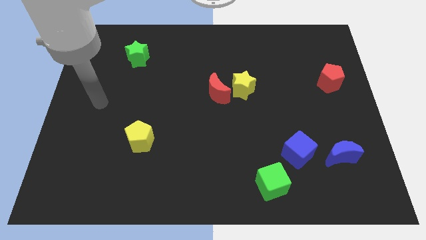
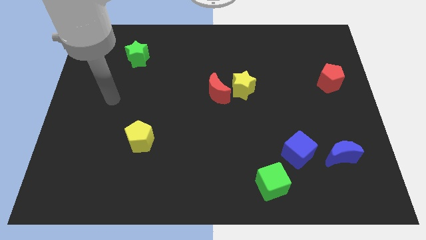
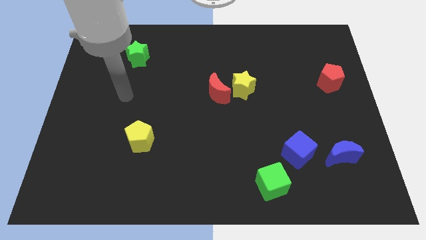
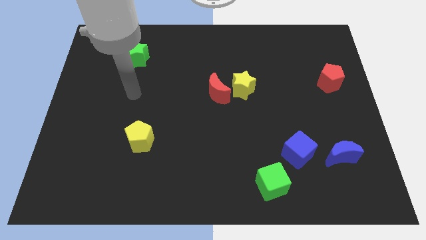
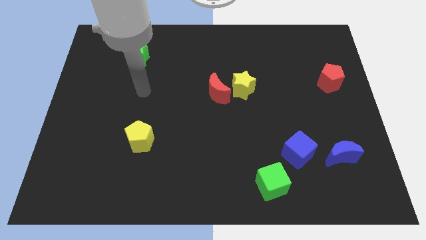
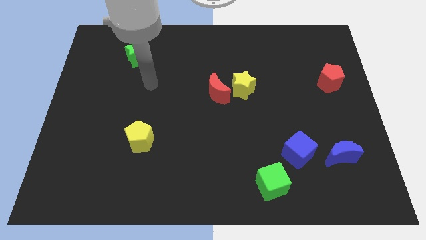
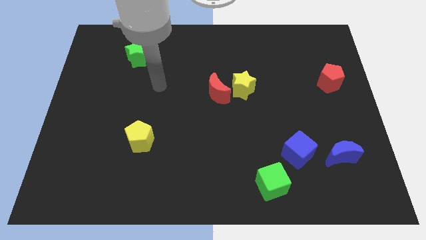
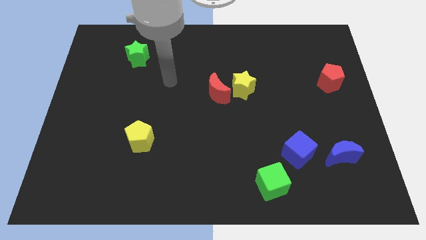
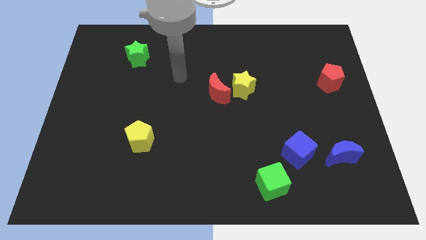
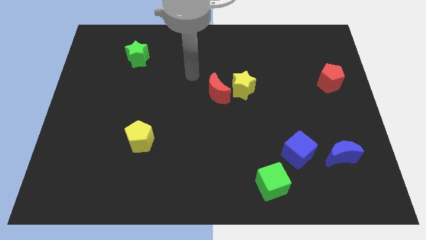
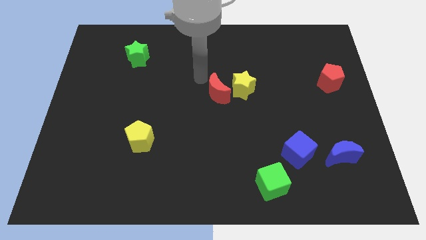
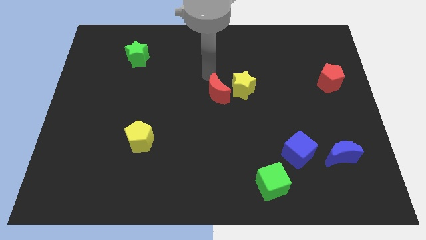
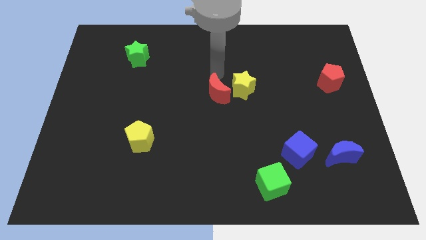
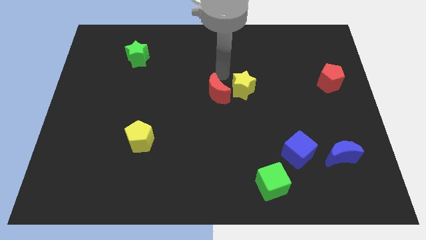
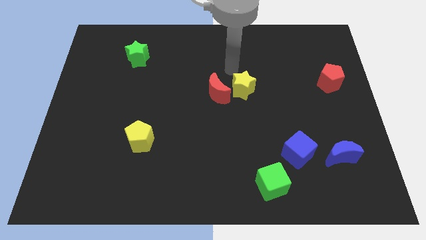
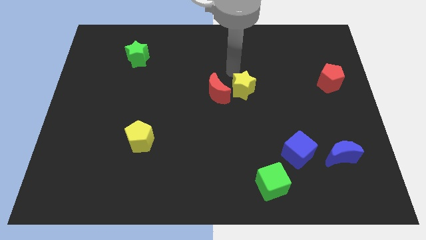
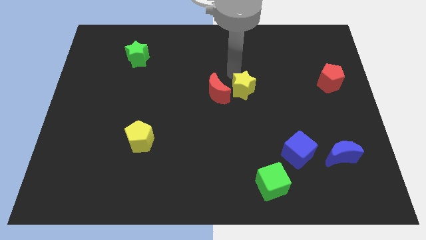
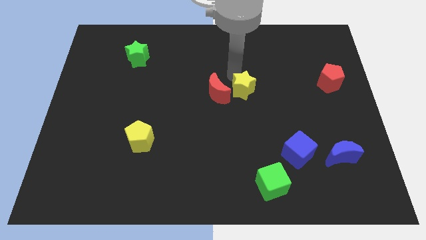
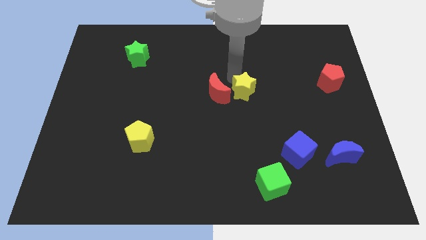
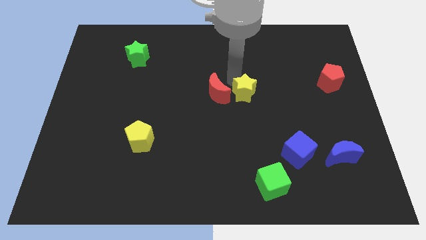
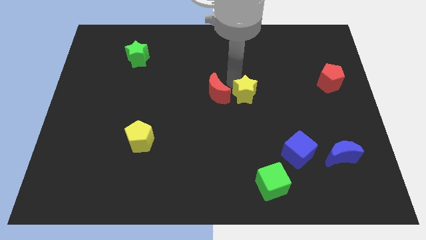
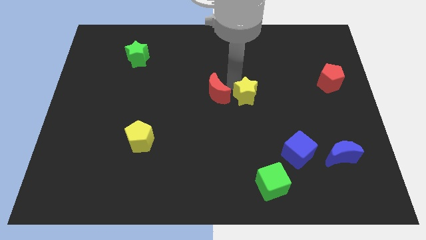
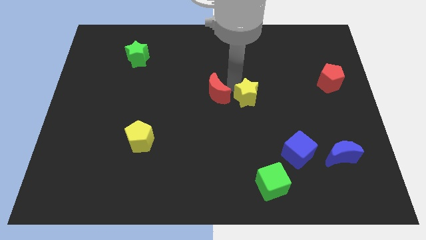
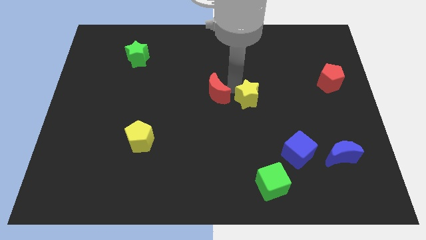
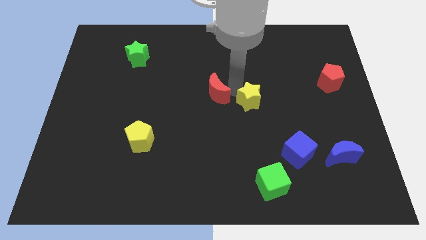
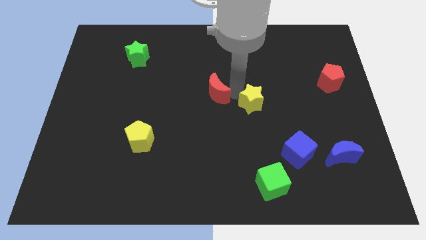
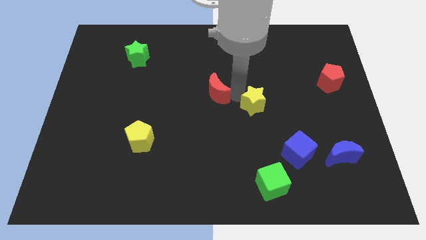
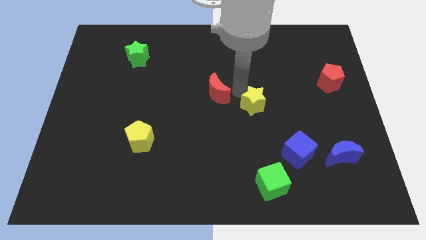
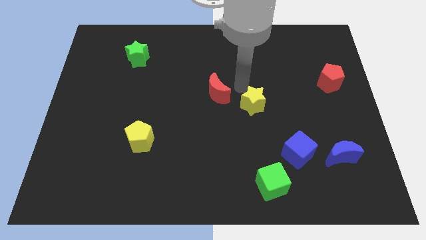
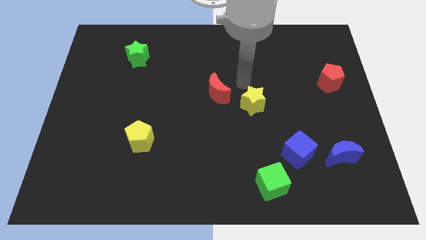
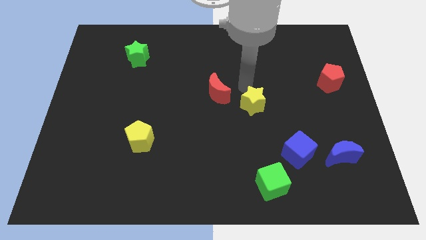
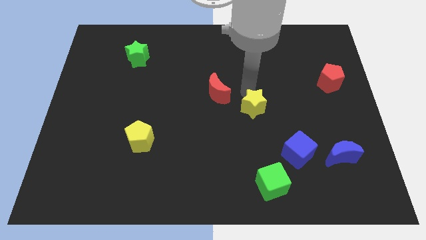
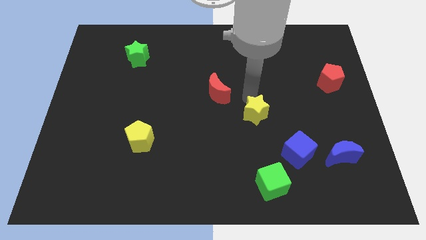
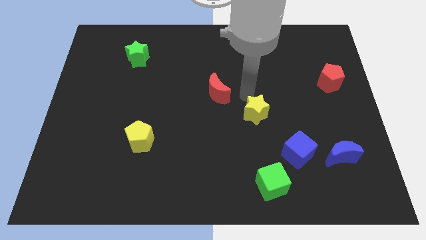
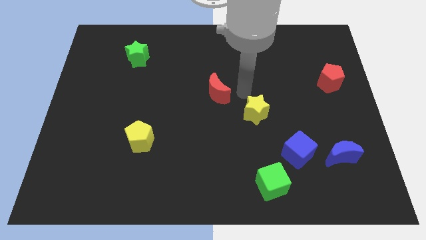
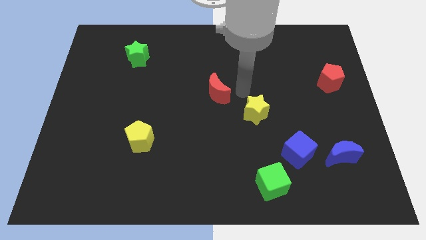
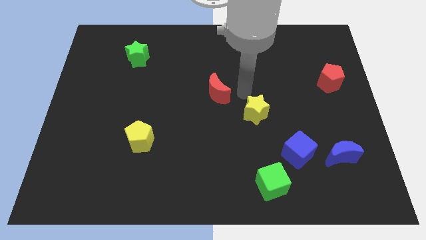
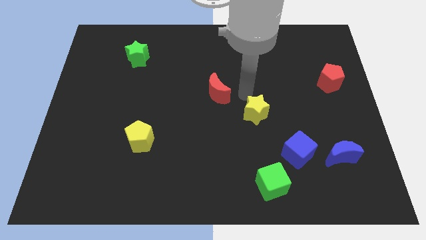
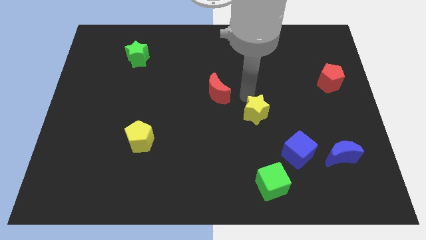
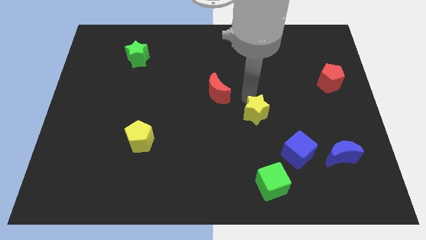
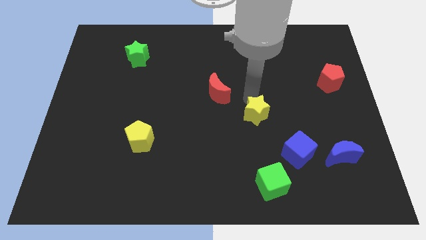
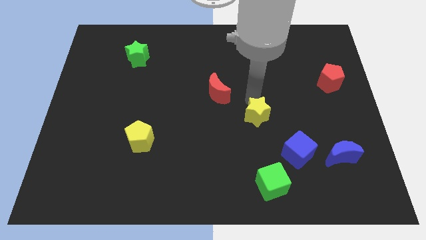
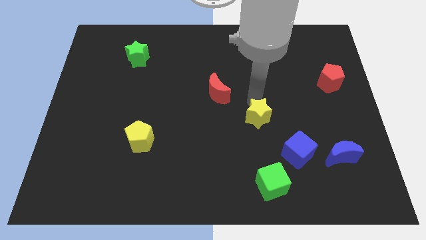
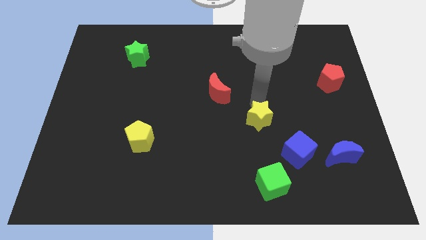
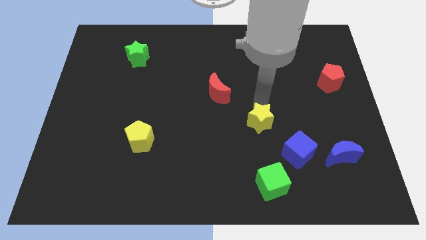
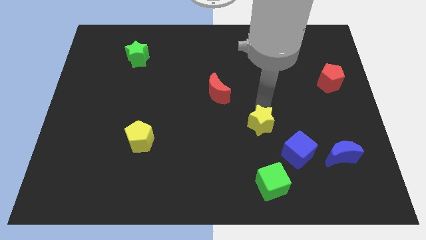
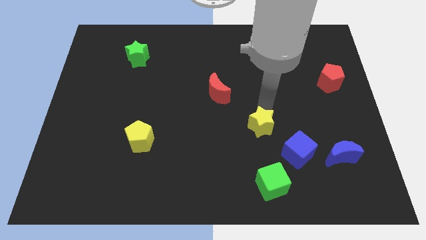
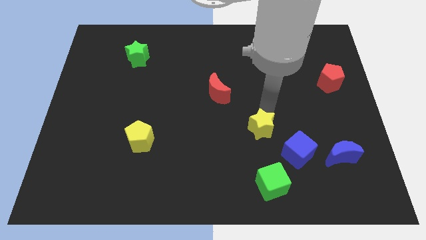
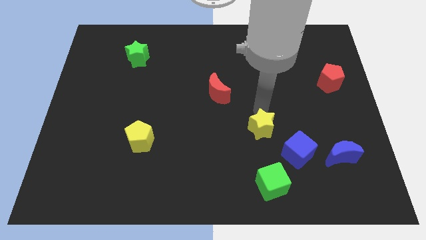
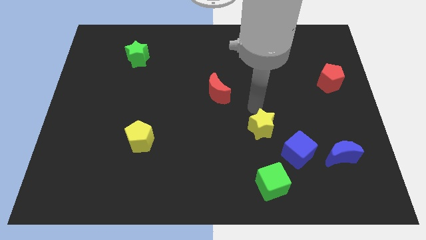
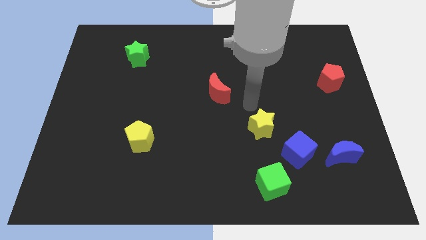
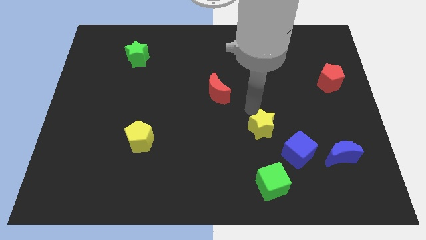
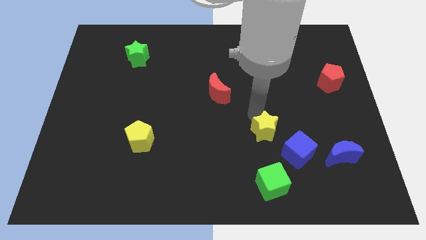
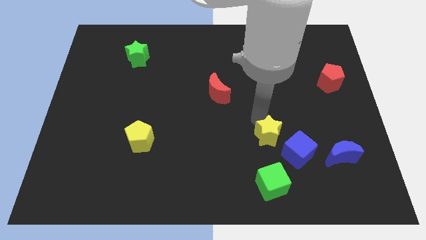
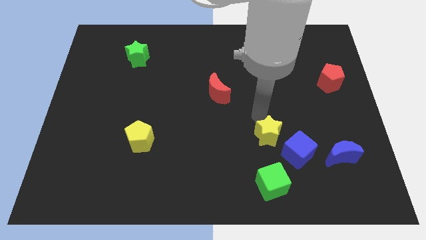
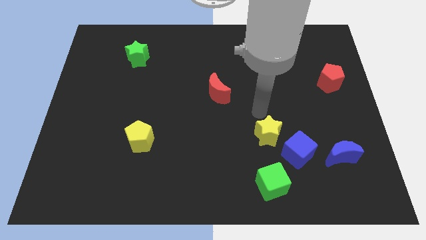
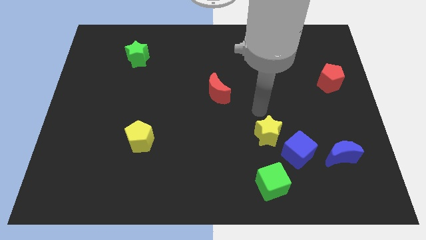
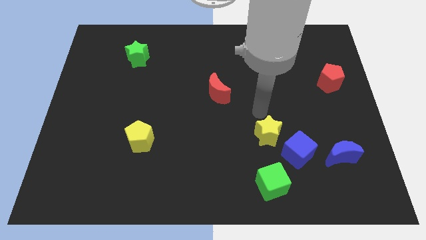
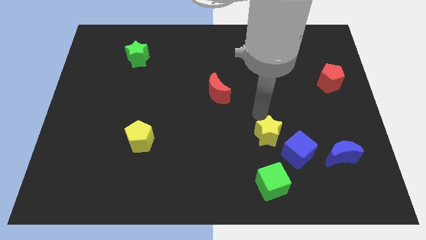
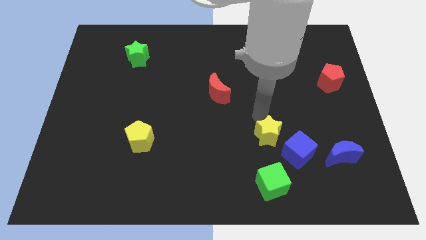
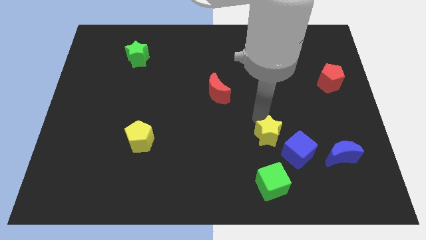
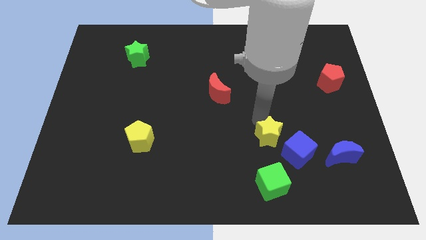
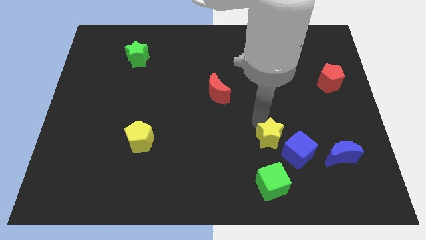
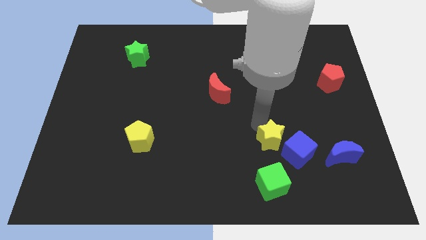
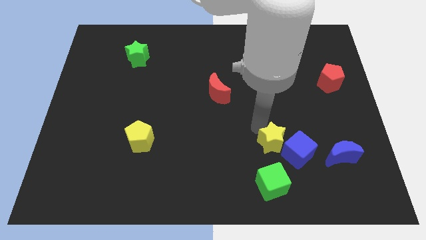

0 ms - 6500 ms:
slide the yellow star left of the blue moon

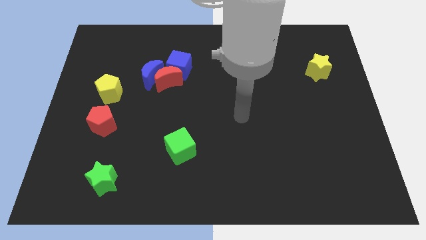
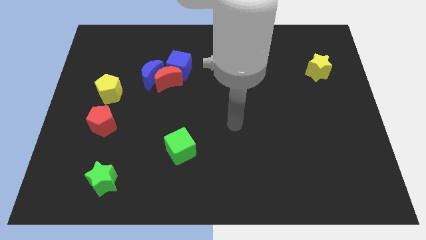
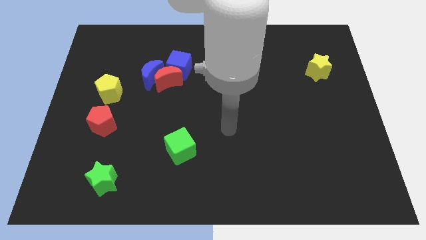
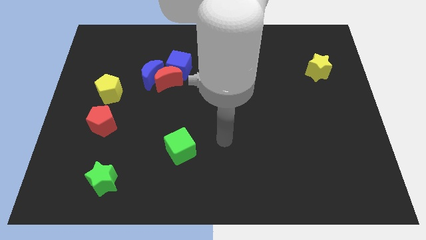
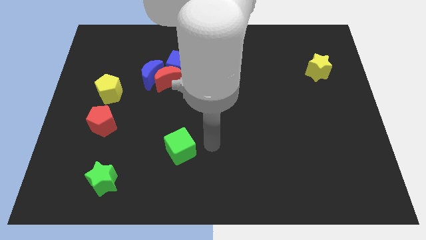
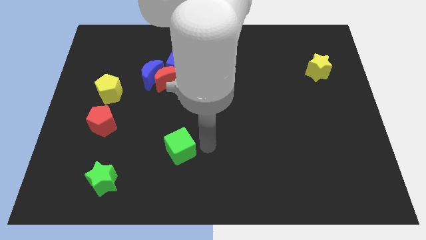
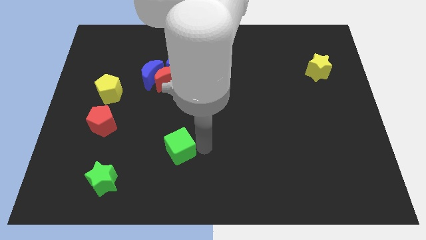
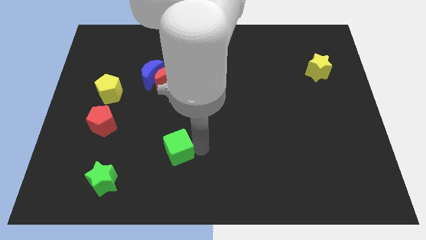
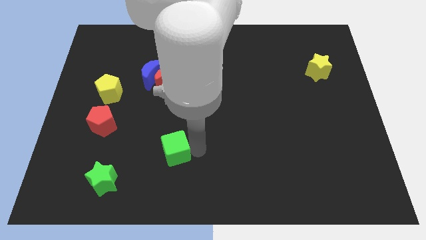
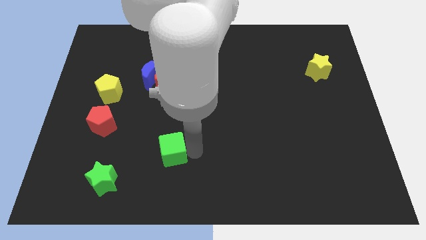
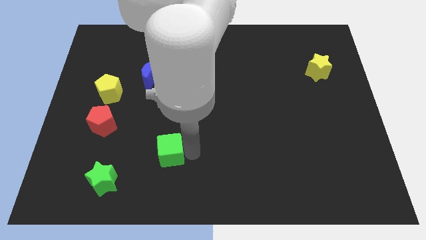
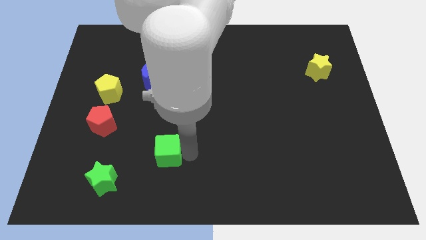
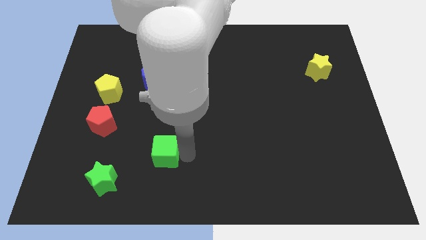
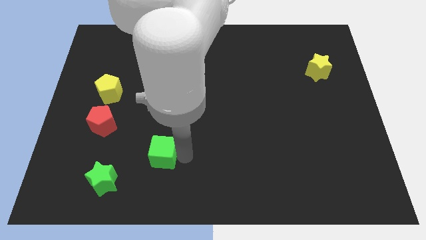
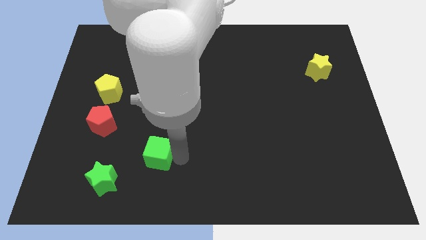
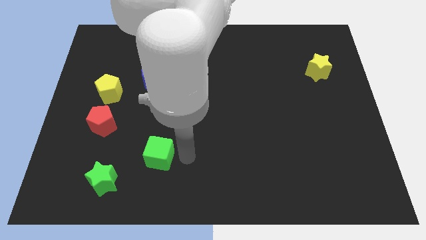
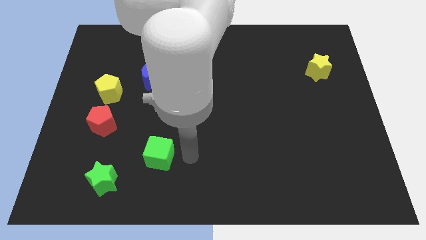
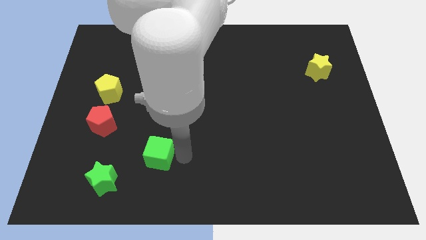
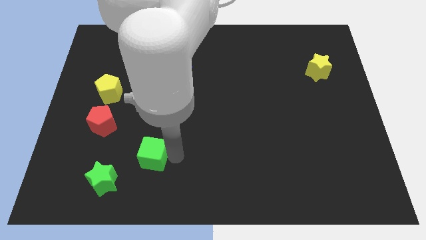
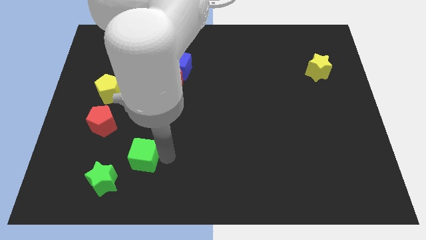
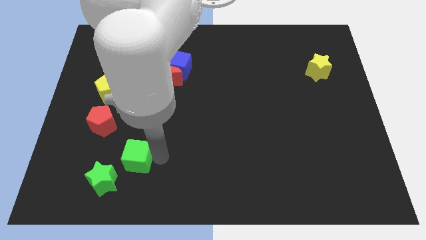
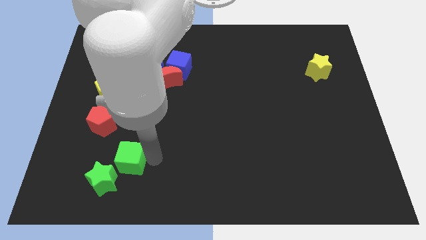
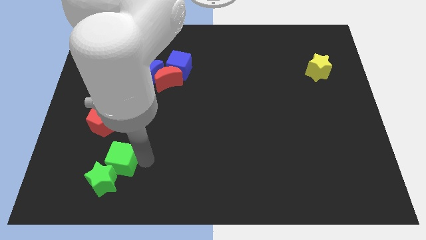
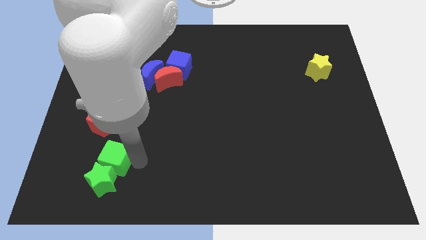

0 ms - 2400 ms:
put the green cube diagonally up and to the left of the green star
